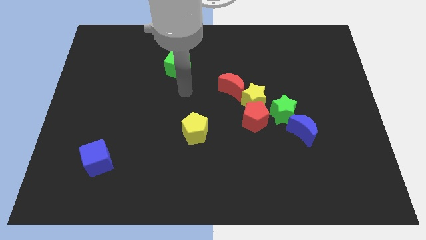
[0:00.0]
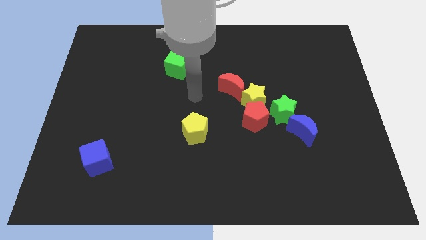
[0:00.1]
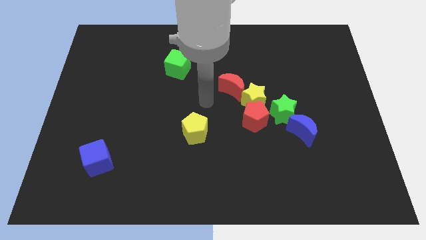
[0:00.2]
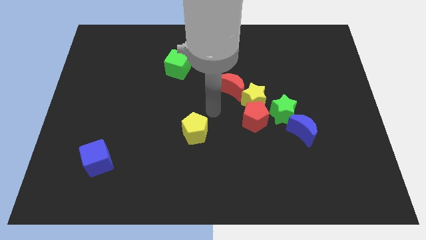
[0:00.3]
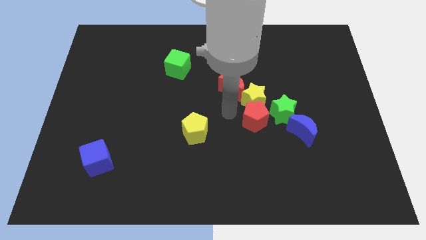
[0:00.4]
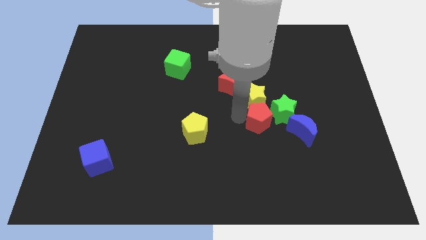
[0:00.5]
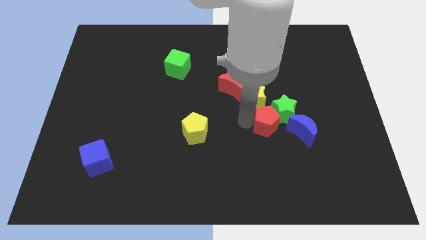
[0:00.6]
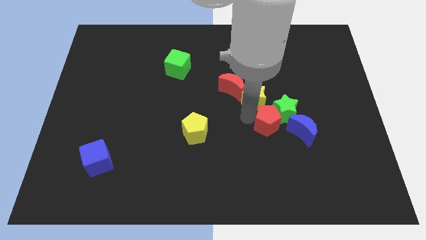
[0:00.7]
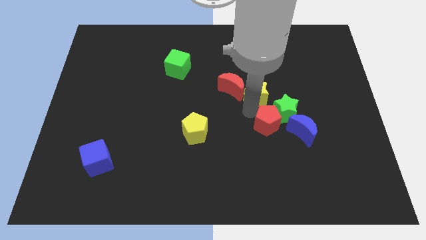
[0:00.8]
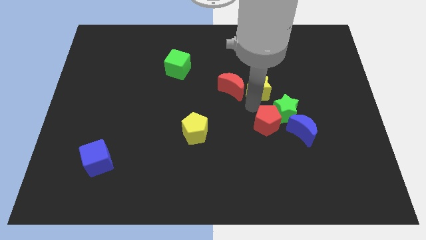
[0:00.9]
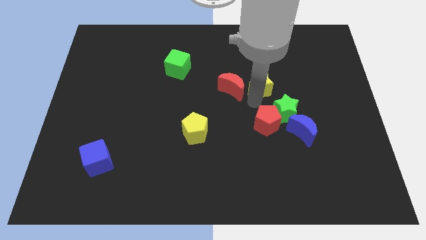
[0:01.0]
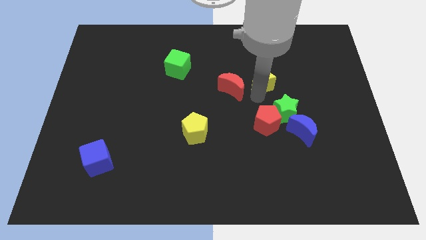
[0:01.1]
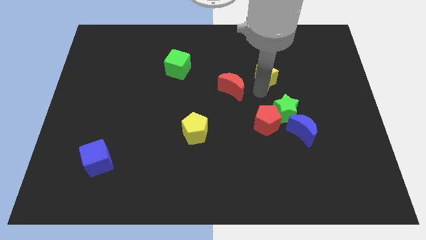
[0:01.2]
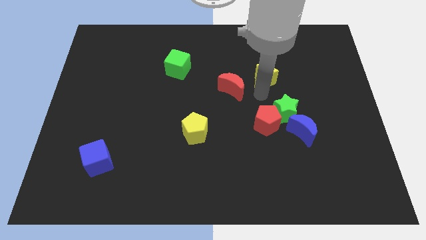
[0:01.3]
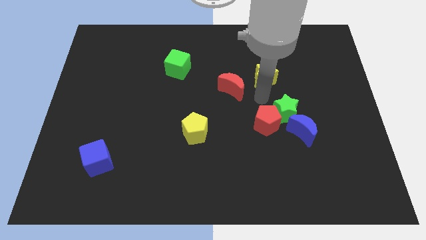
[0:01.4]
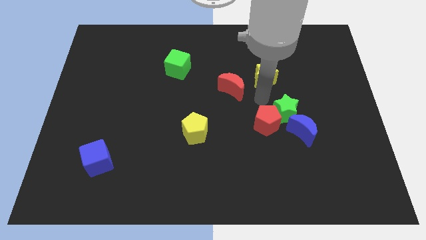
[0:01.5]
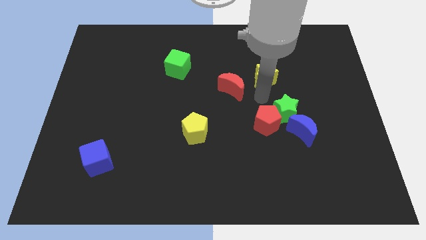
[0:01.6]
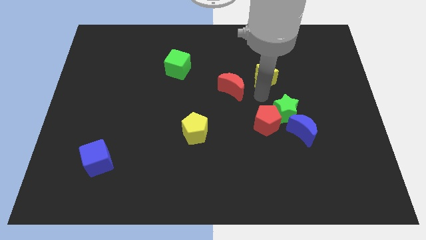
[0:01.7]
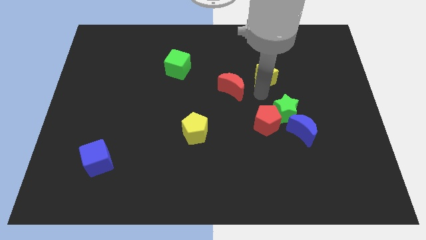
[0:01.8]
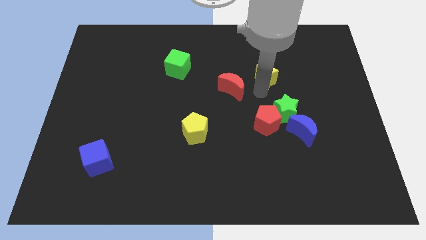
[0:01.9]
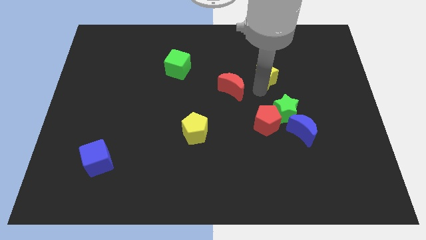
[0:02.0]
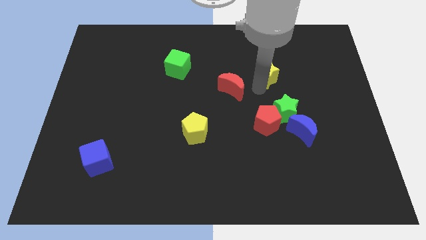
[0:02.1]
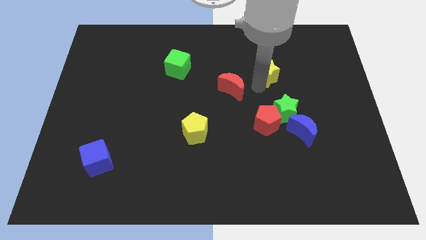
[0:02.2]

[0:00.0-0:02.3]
move the yellow star away from the red pentagon, red moon, and green star

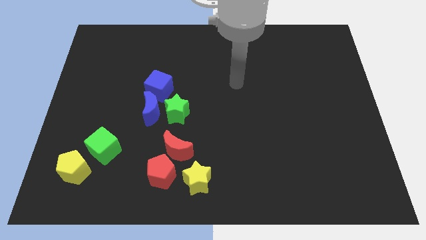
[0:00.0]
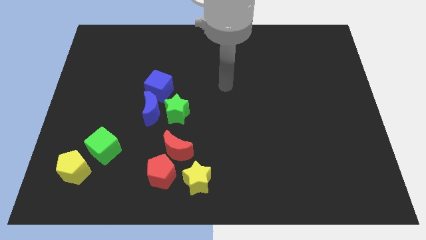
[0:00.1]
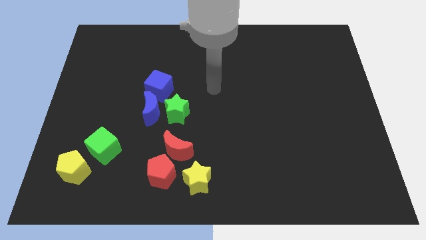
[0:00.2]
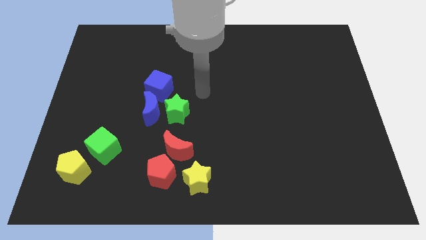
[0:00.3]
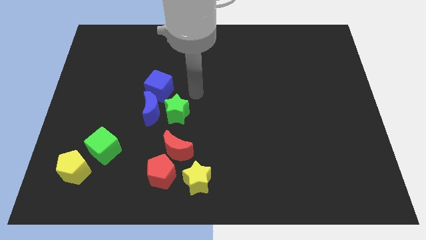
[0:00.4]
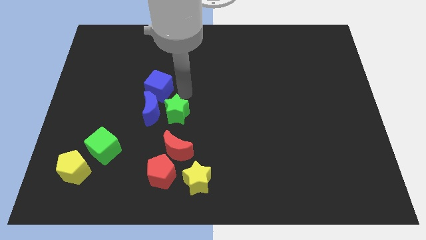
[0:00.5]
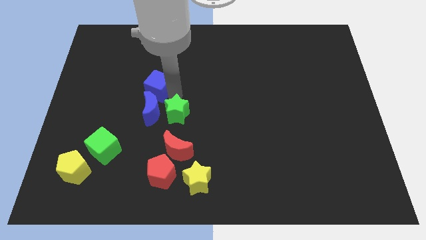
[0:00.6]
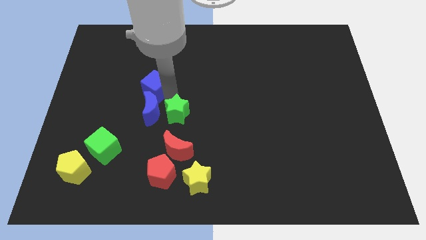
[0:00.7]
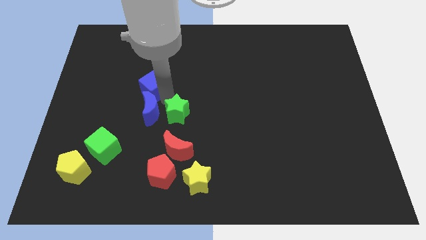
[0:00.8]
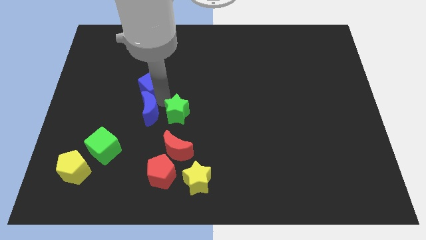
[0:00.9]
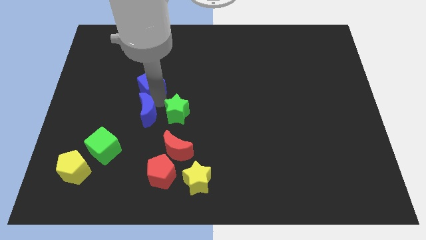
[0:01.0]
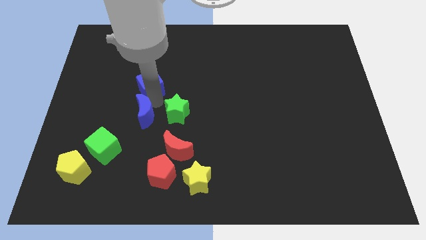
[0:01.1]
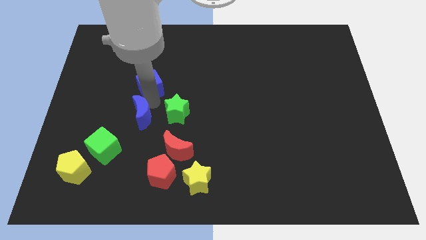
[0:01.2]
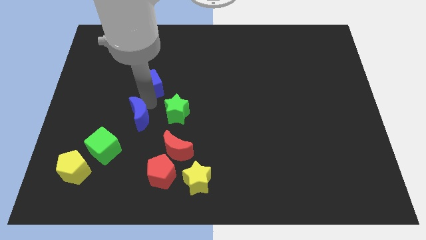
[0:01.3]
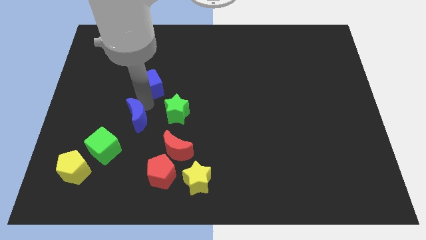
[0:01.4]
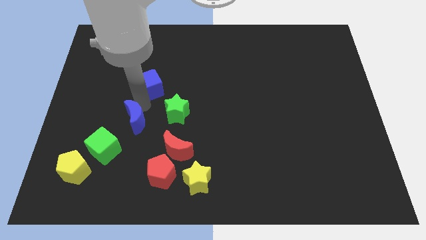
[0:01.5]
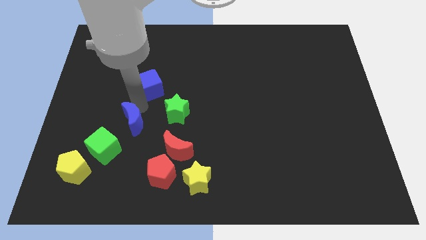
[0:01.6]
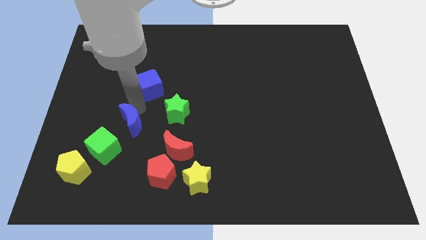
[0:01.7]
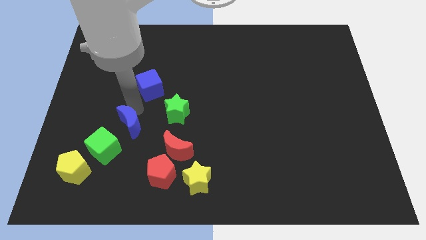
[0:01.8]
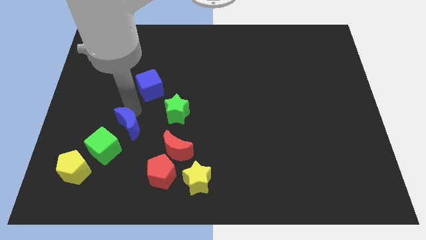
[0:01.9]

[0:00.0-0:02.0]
move the blue moon away from the green star and blue cube

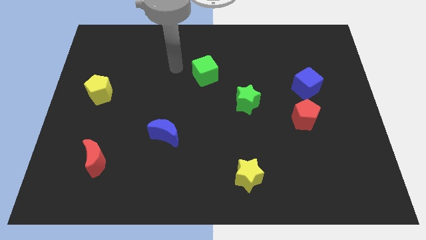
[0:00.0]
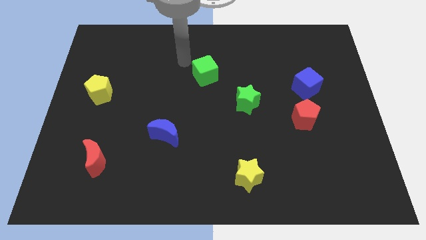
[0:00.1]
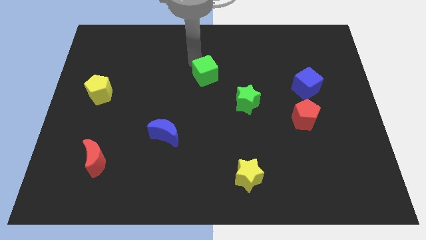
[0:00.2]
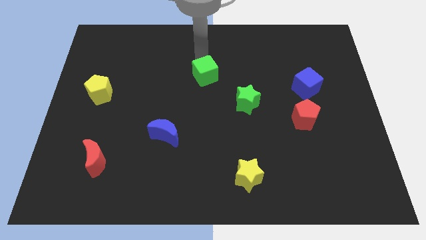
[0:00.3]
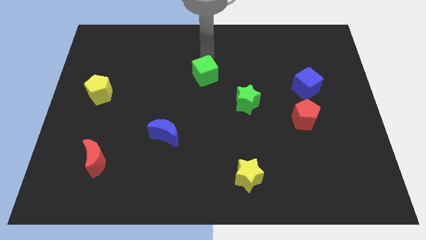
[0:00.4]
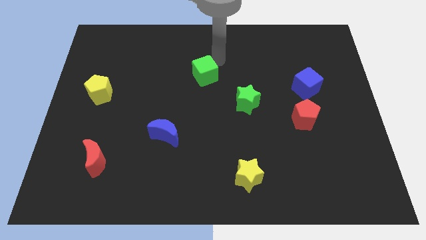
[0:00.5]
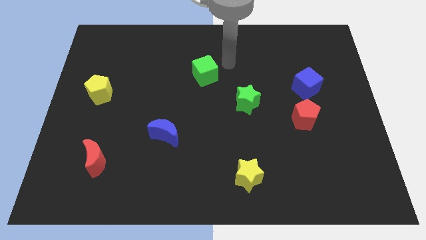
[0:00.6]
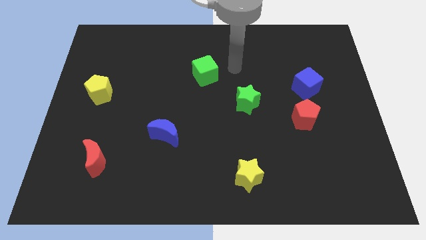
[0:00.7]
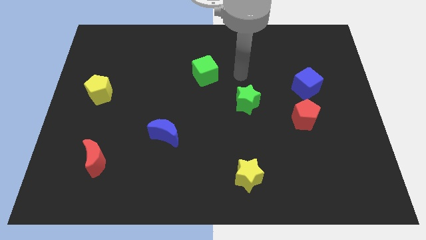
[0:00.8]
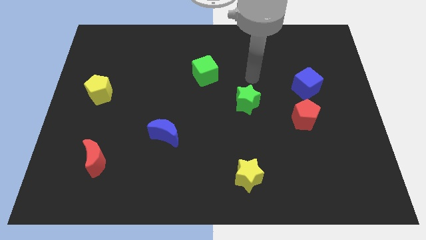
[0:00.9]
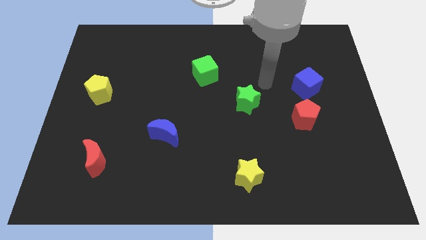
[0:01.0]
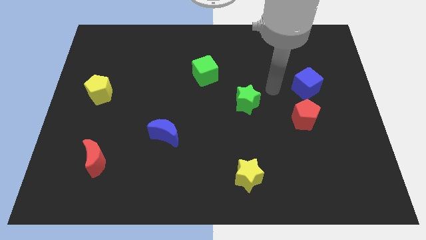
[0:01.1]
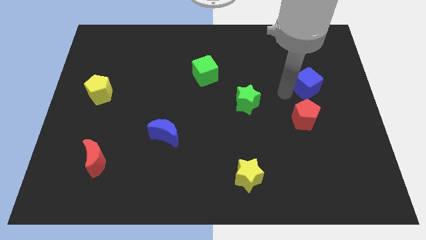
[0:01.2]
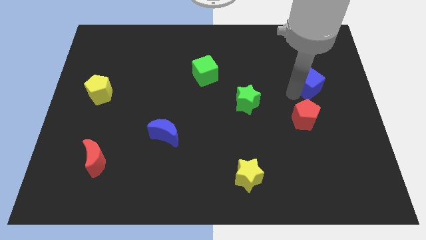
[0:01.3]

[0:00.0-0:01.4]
separate the red pentagon from the blue cube

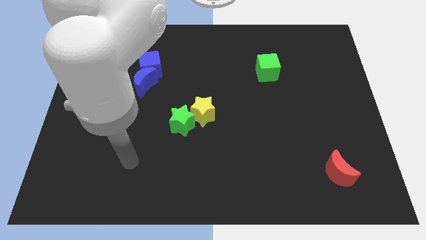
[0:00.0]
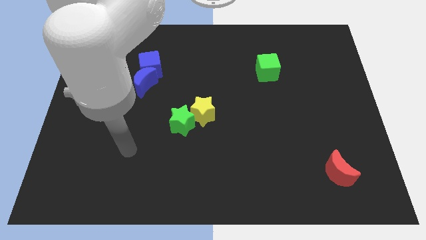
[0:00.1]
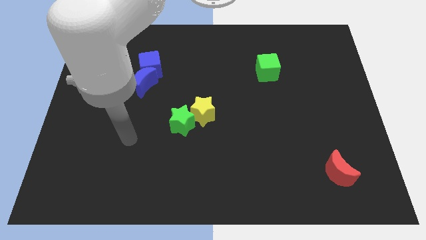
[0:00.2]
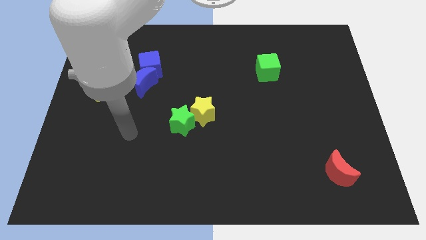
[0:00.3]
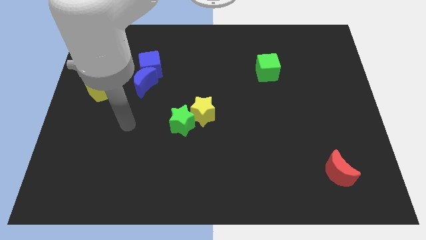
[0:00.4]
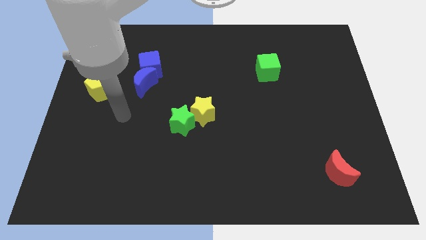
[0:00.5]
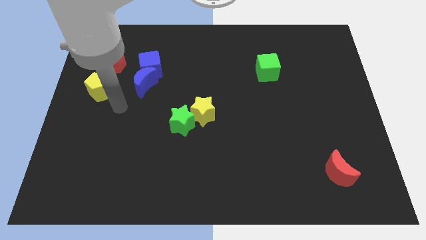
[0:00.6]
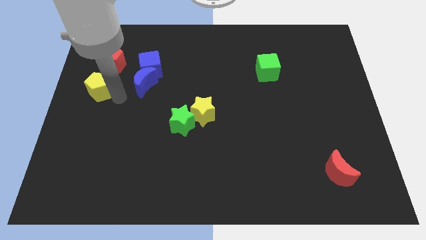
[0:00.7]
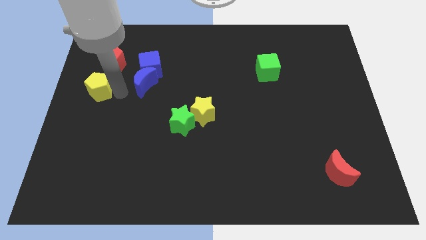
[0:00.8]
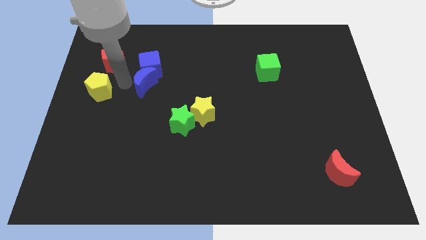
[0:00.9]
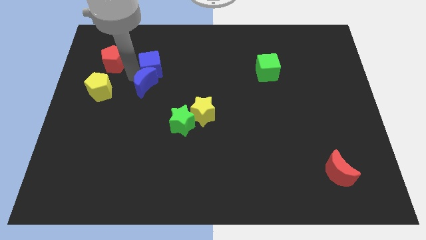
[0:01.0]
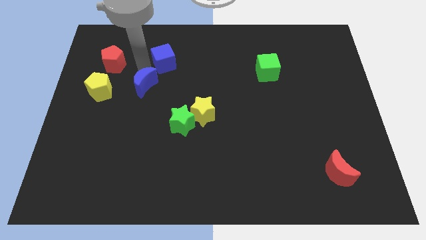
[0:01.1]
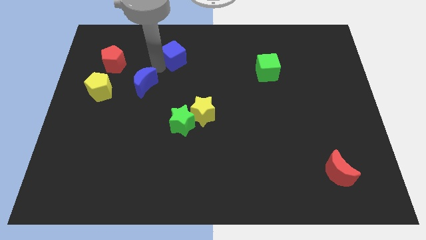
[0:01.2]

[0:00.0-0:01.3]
move the blue moon away from the blue cube

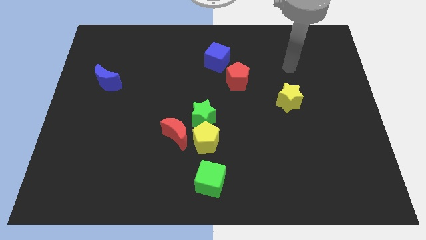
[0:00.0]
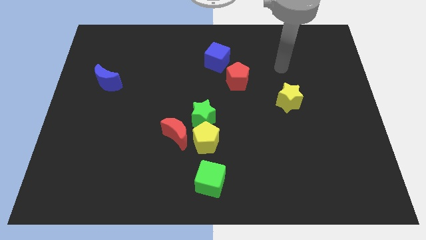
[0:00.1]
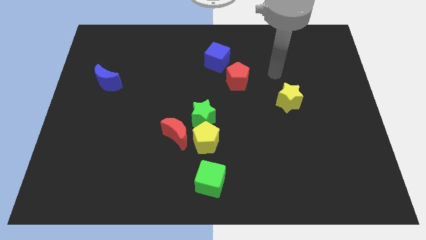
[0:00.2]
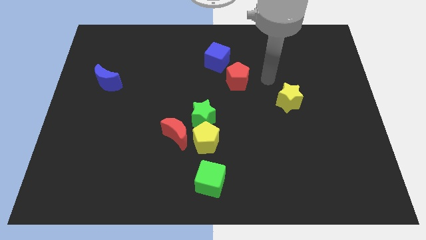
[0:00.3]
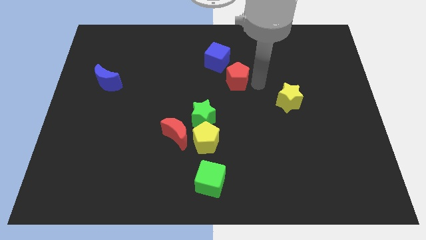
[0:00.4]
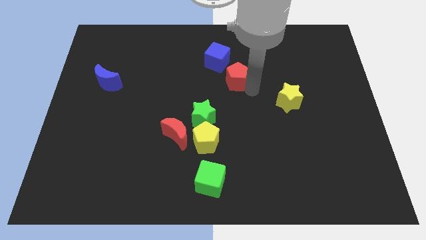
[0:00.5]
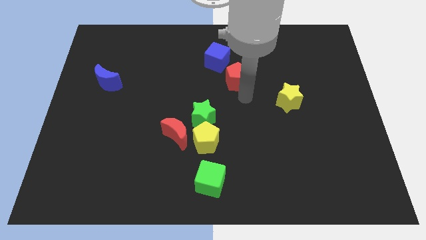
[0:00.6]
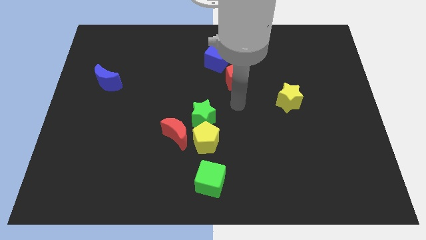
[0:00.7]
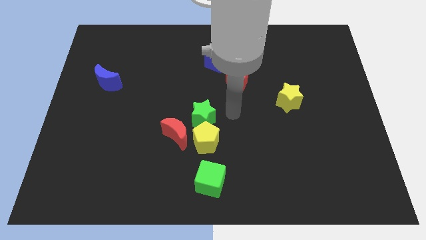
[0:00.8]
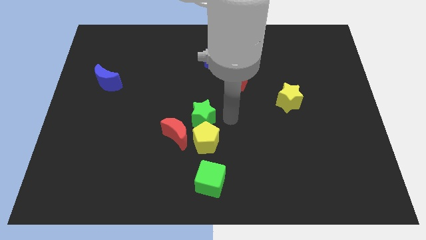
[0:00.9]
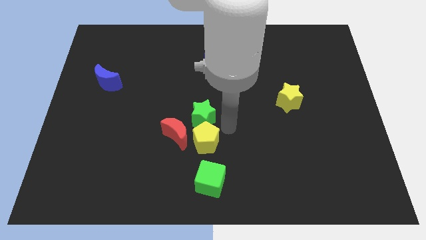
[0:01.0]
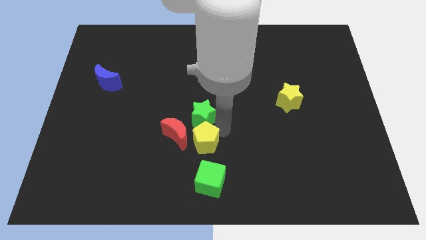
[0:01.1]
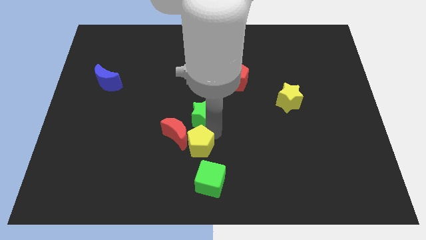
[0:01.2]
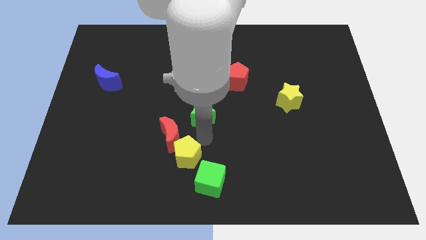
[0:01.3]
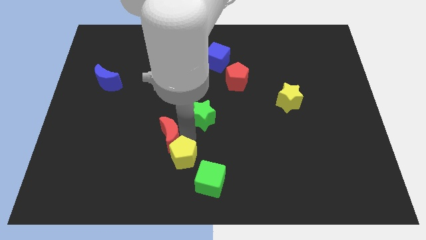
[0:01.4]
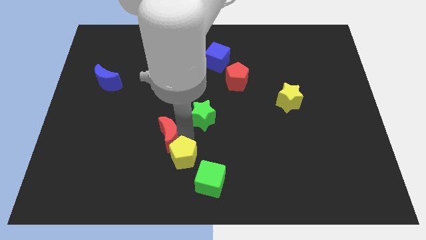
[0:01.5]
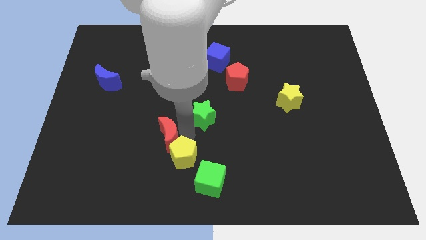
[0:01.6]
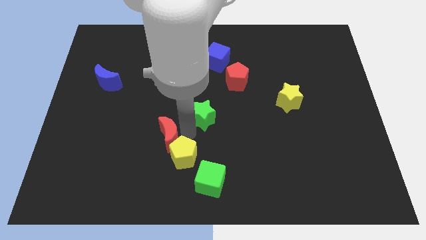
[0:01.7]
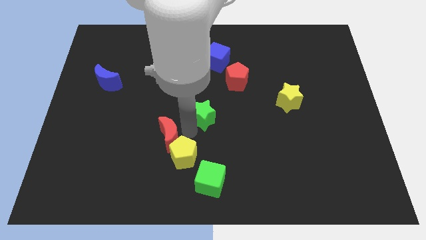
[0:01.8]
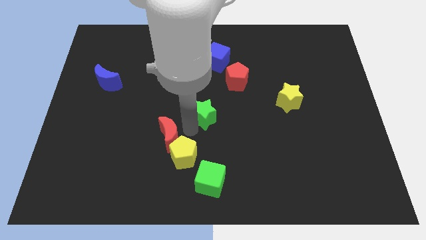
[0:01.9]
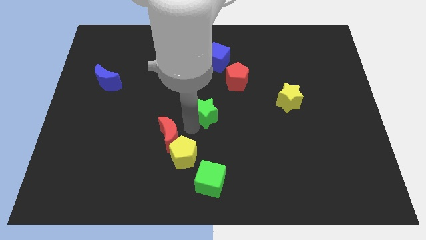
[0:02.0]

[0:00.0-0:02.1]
pull the green star apart from the yellow pentagon and red moon

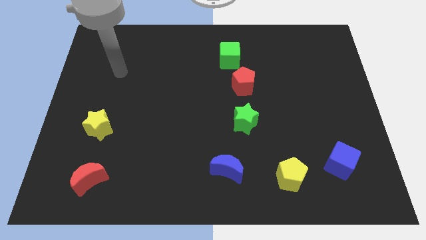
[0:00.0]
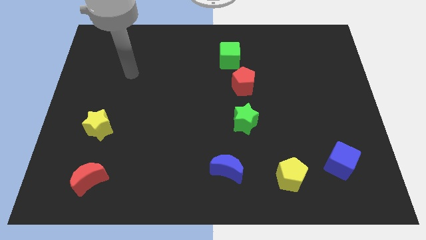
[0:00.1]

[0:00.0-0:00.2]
separate the red pentagon from the green cube
